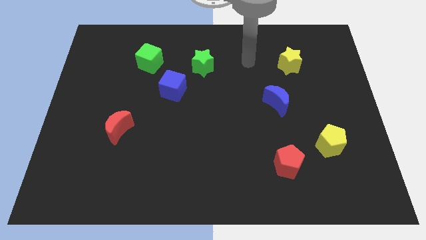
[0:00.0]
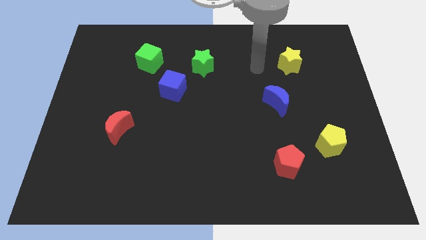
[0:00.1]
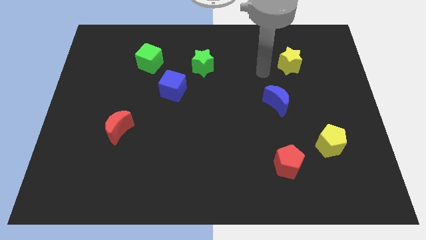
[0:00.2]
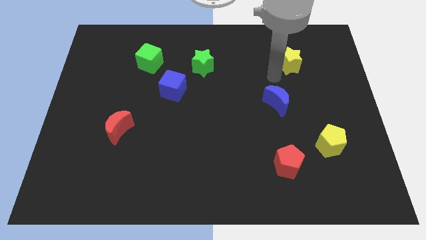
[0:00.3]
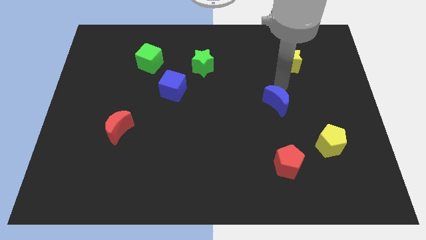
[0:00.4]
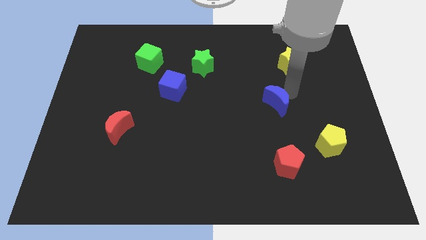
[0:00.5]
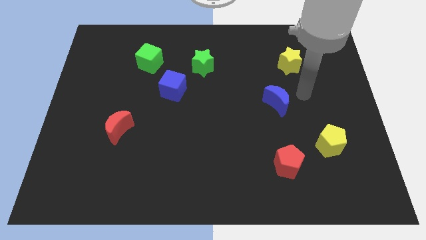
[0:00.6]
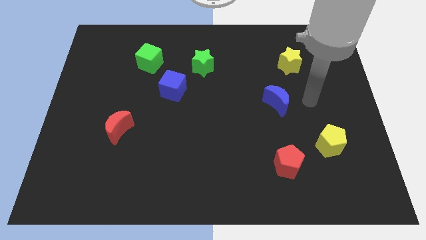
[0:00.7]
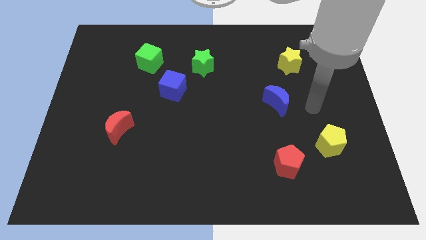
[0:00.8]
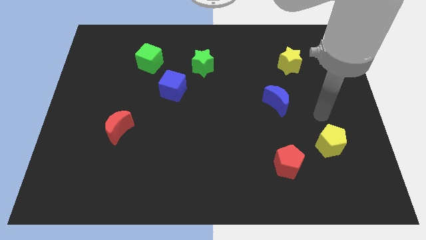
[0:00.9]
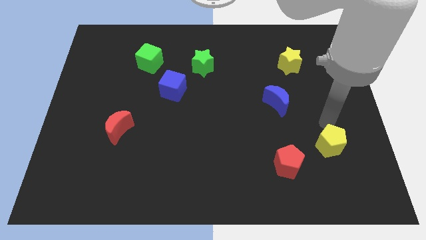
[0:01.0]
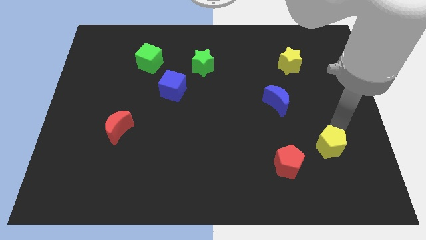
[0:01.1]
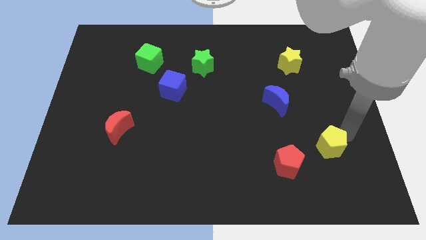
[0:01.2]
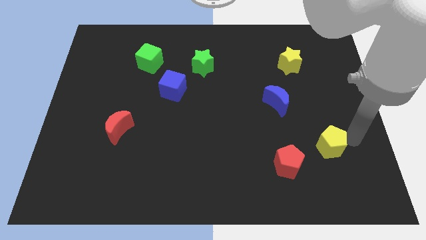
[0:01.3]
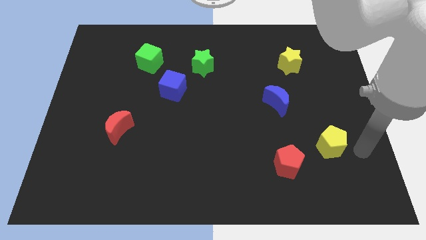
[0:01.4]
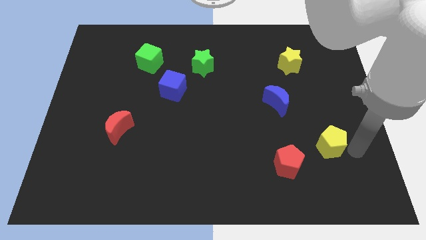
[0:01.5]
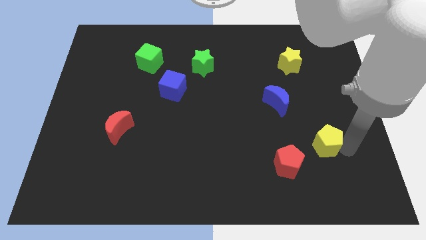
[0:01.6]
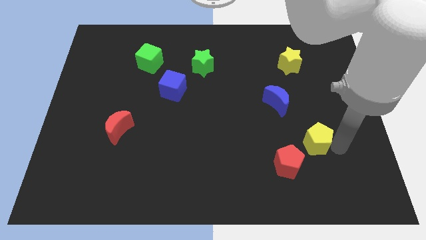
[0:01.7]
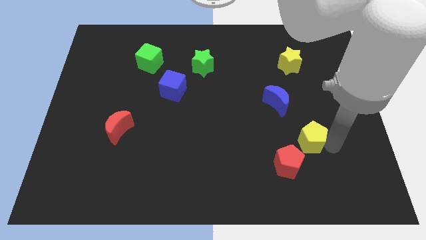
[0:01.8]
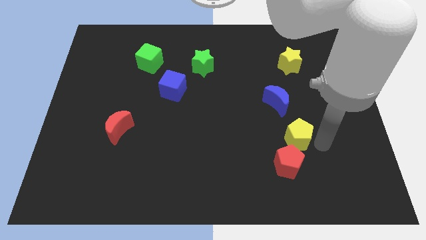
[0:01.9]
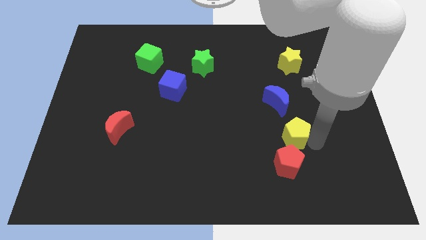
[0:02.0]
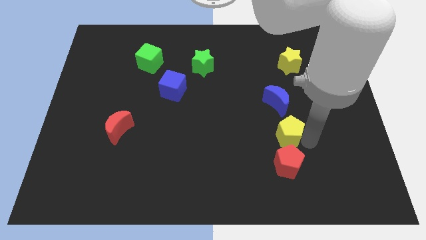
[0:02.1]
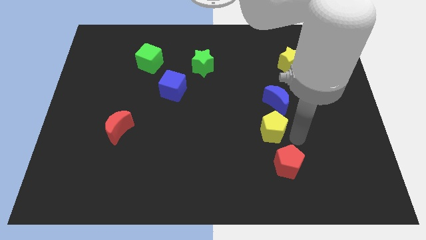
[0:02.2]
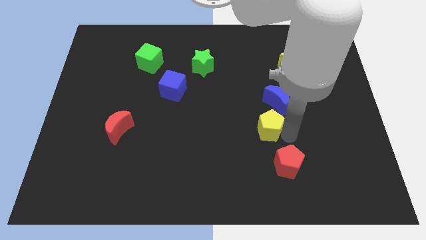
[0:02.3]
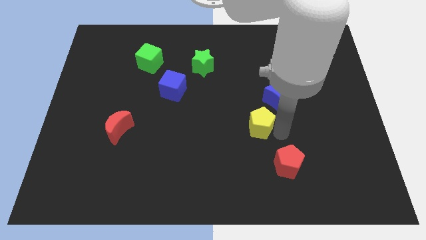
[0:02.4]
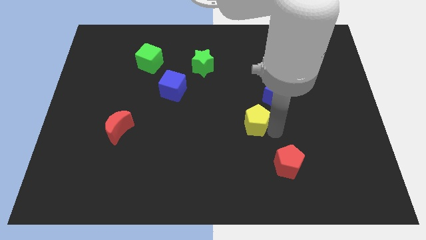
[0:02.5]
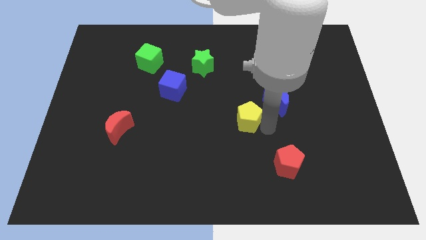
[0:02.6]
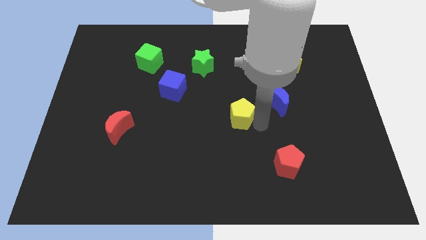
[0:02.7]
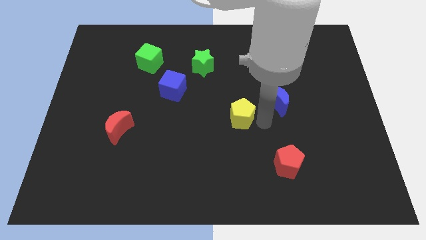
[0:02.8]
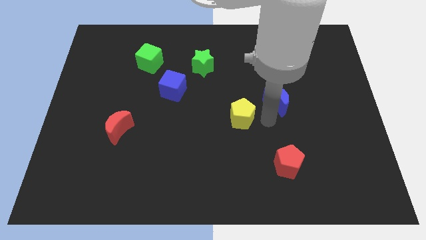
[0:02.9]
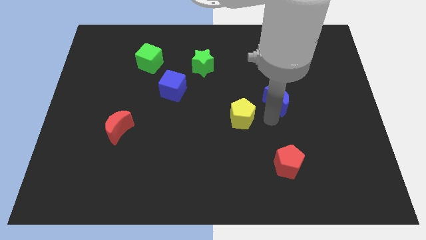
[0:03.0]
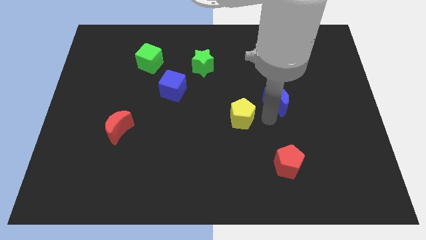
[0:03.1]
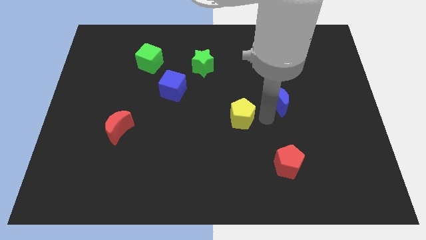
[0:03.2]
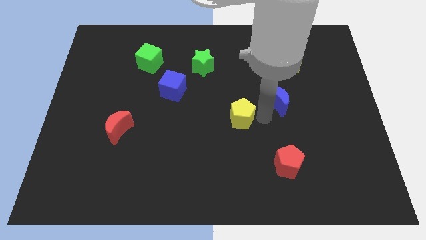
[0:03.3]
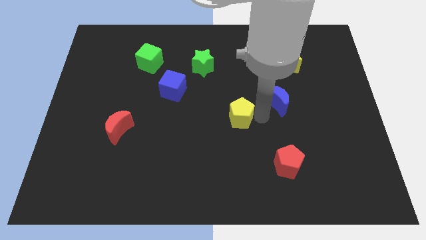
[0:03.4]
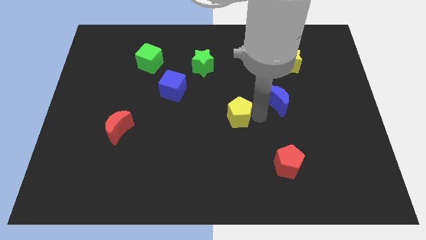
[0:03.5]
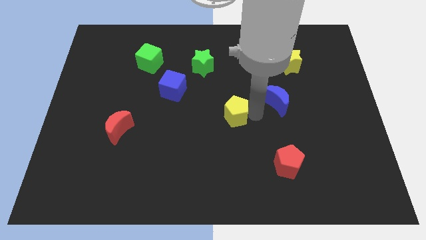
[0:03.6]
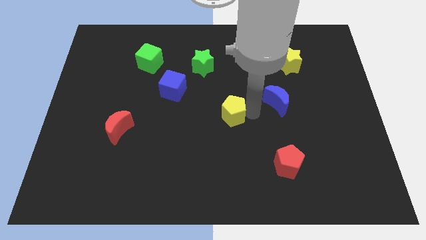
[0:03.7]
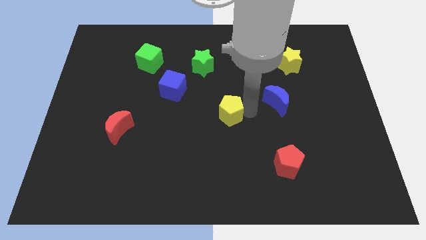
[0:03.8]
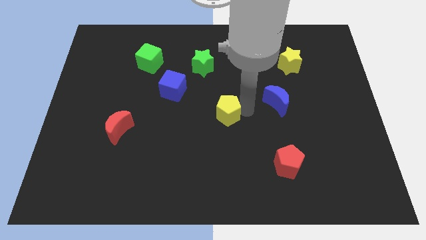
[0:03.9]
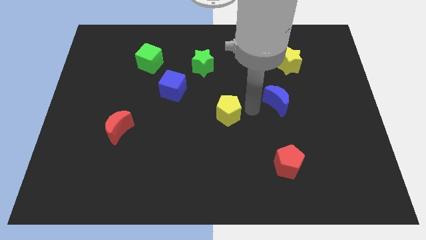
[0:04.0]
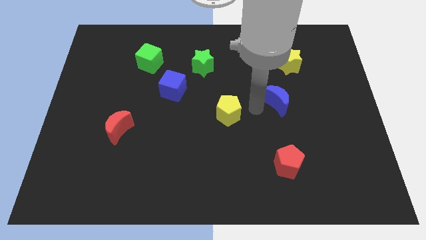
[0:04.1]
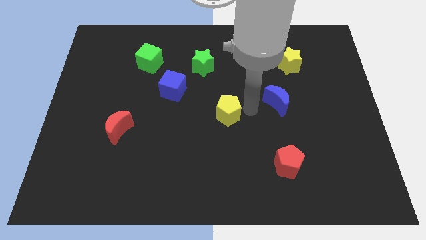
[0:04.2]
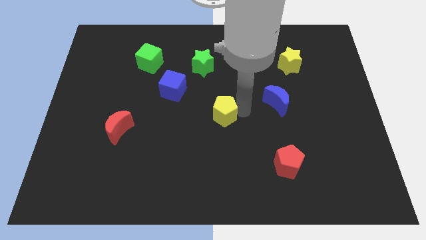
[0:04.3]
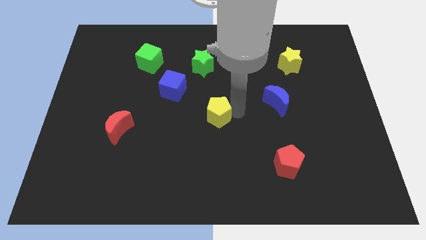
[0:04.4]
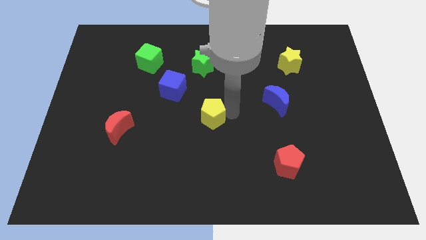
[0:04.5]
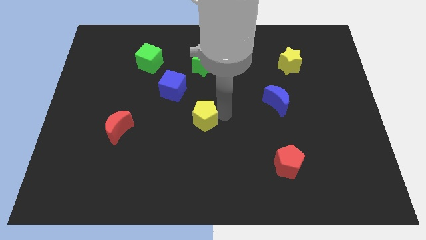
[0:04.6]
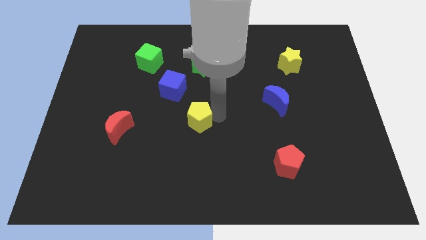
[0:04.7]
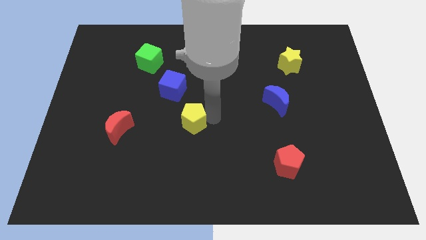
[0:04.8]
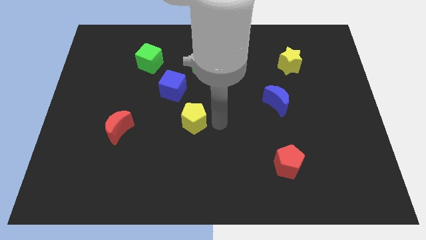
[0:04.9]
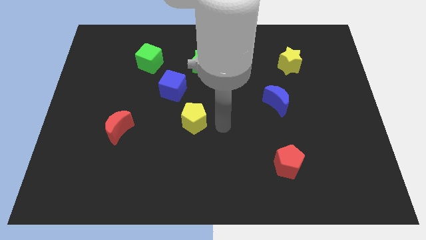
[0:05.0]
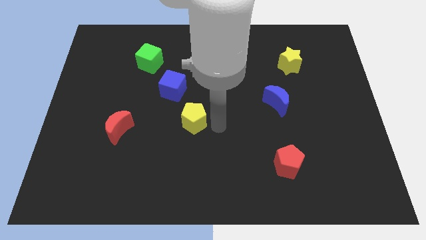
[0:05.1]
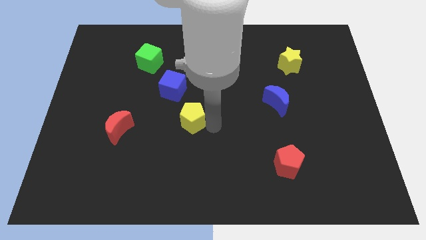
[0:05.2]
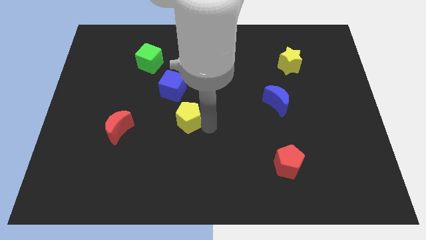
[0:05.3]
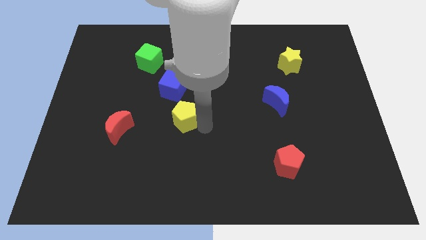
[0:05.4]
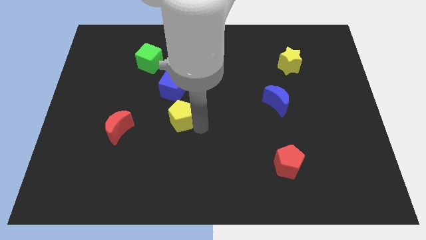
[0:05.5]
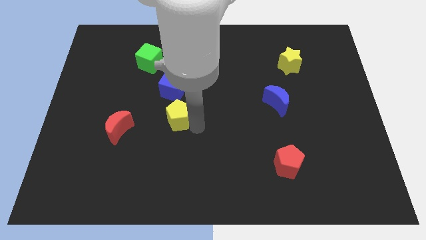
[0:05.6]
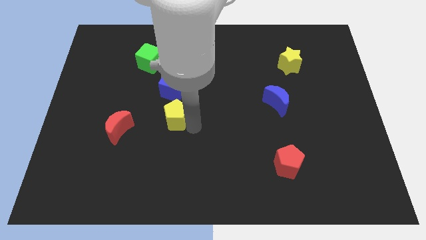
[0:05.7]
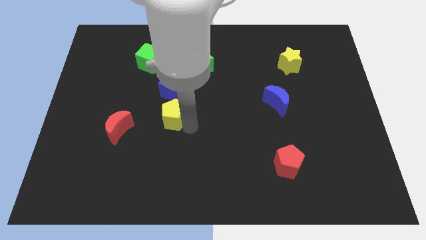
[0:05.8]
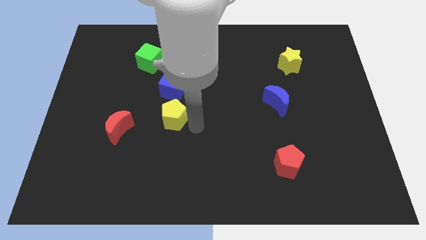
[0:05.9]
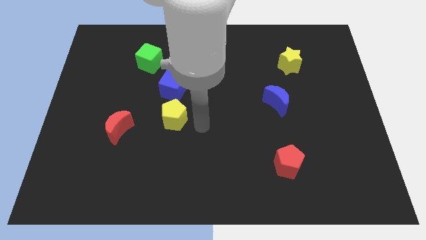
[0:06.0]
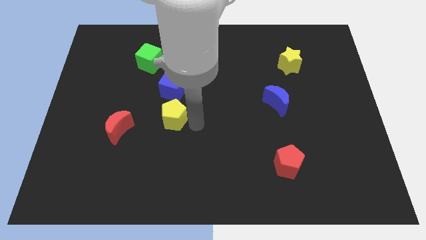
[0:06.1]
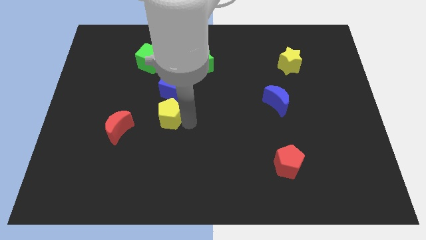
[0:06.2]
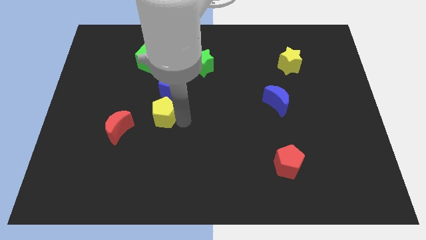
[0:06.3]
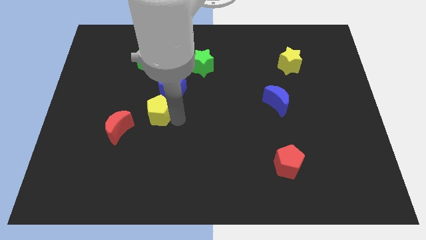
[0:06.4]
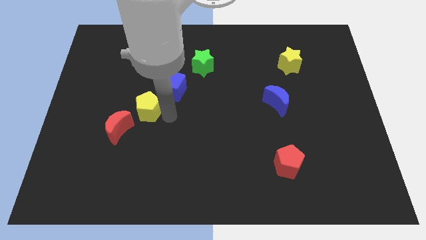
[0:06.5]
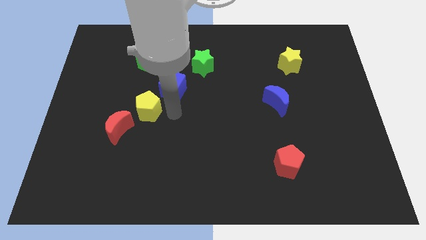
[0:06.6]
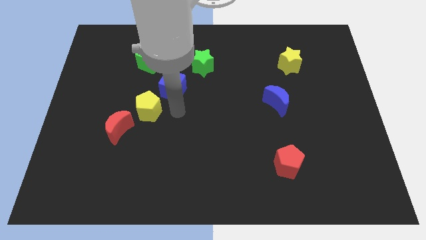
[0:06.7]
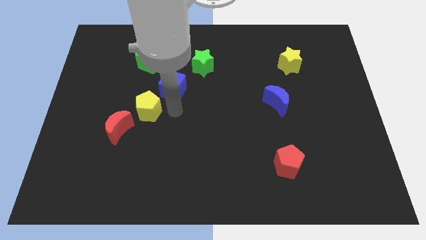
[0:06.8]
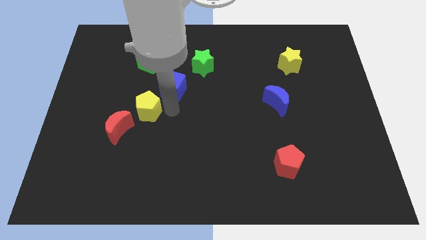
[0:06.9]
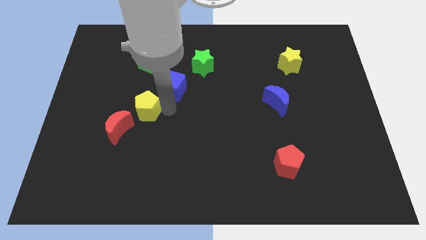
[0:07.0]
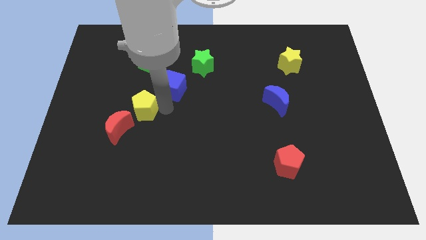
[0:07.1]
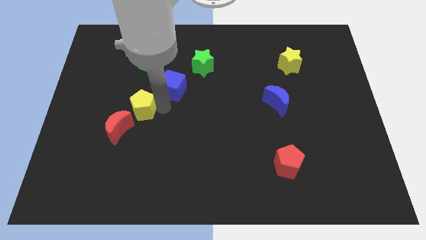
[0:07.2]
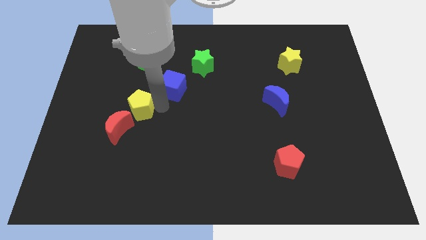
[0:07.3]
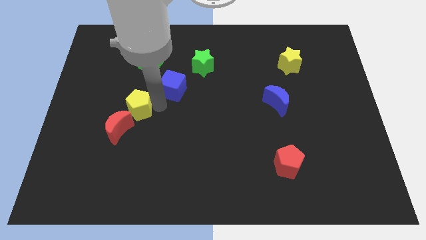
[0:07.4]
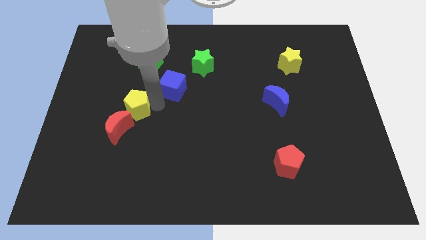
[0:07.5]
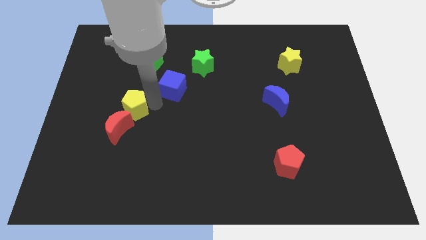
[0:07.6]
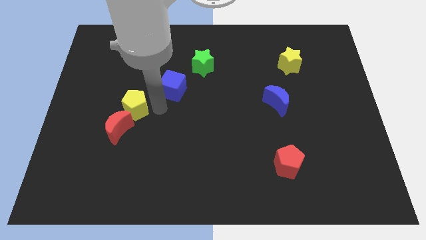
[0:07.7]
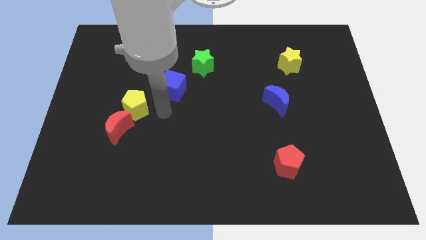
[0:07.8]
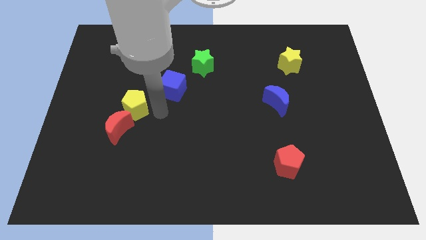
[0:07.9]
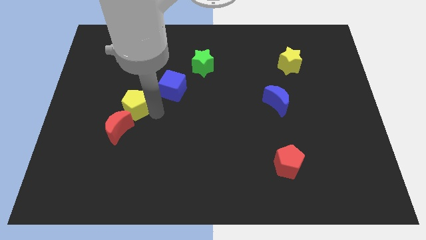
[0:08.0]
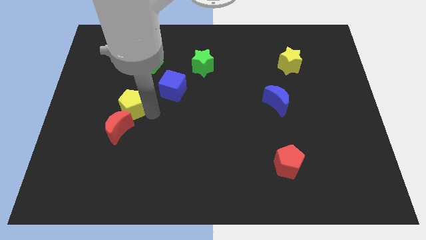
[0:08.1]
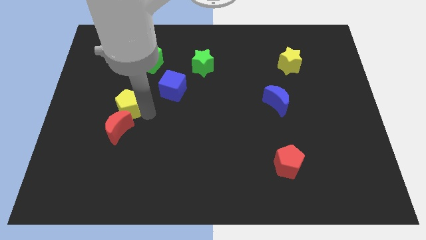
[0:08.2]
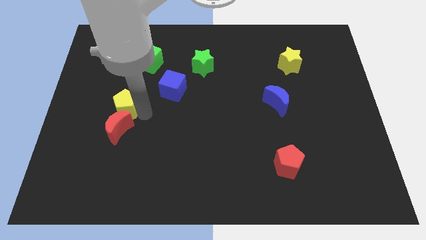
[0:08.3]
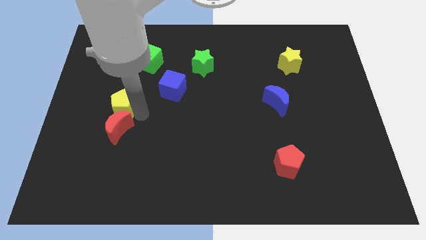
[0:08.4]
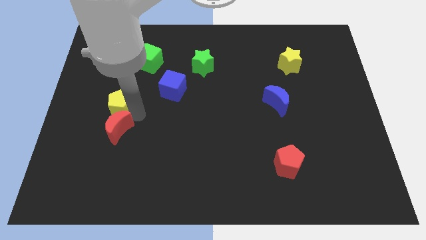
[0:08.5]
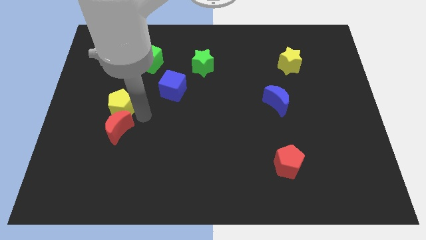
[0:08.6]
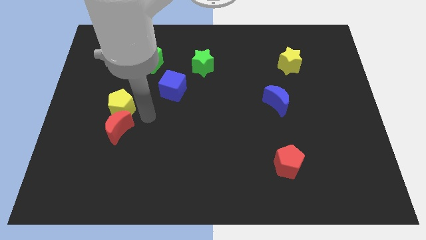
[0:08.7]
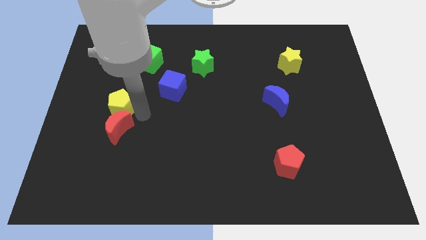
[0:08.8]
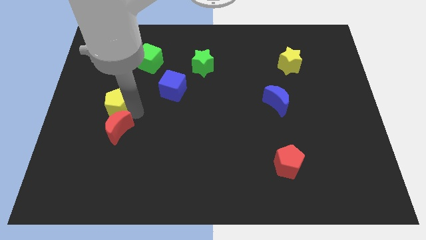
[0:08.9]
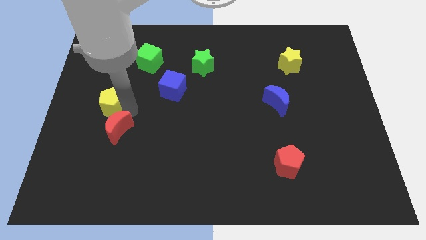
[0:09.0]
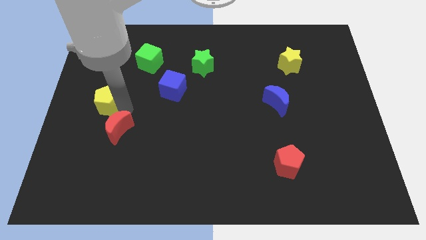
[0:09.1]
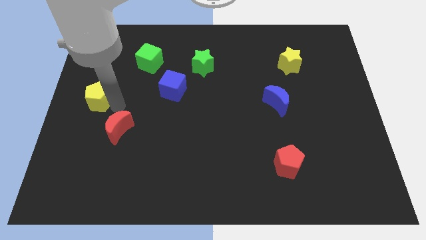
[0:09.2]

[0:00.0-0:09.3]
push the yellow pentagon to the left side of the board
